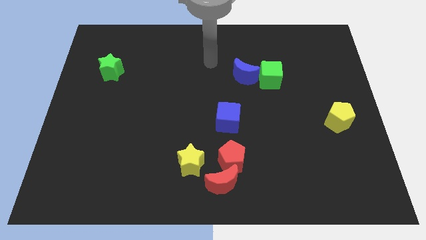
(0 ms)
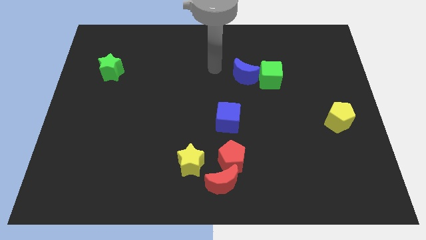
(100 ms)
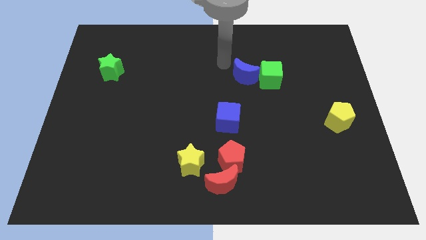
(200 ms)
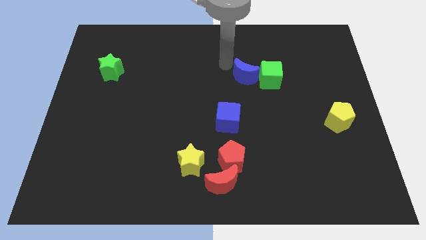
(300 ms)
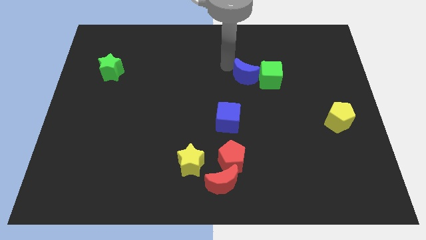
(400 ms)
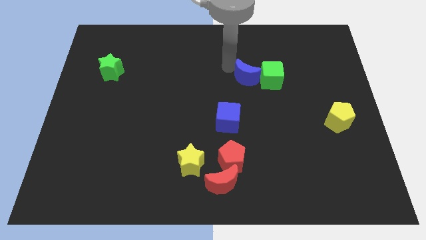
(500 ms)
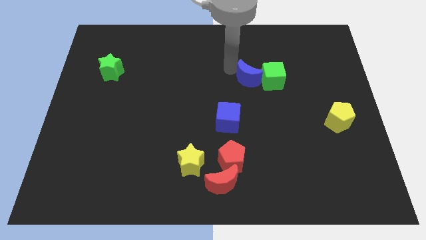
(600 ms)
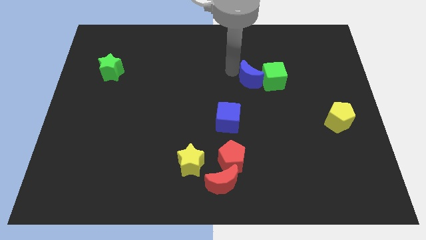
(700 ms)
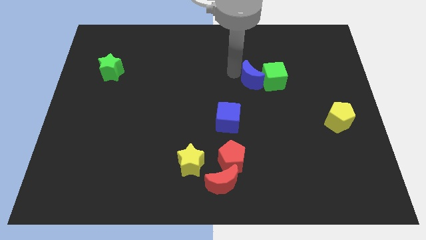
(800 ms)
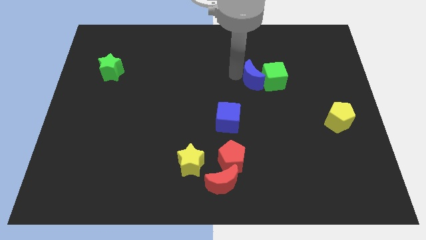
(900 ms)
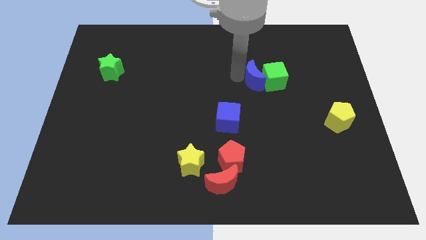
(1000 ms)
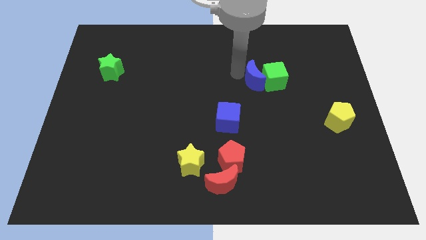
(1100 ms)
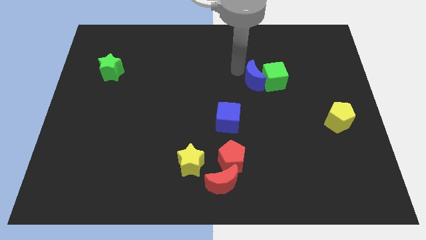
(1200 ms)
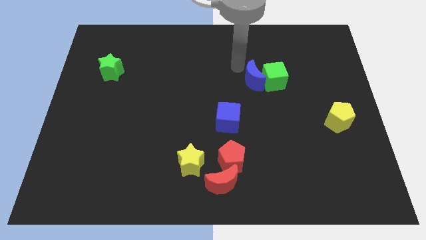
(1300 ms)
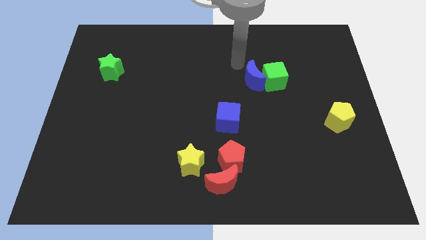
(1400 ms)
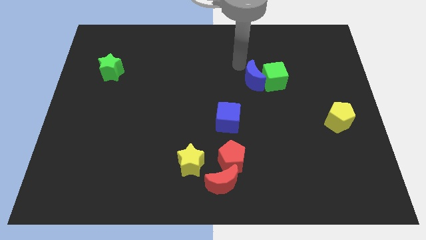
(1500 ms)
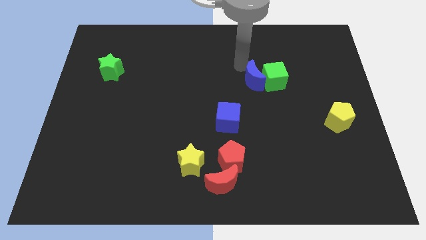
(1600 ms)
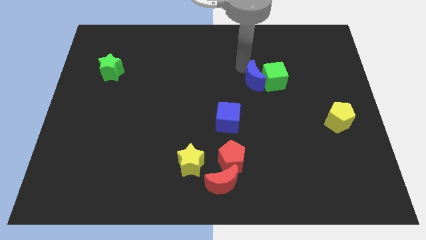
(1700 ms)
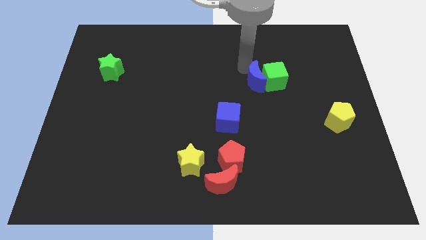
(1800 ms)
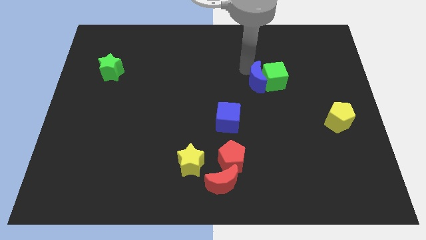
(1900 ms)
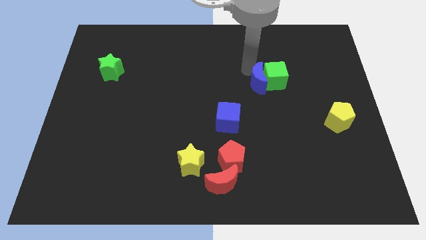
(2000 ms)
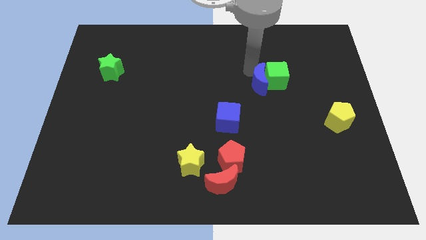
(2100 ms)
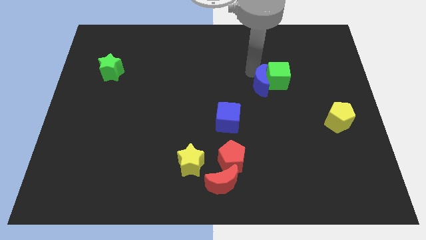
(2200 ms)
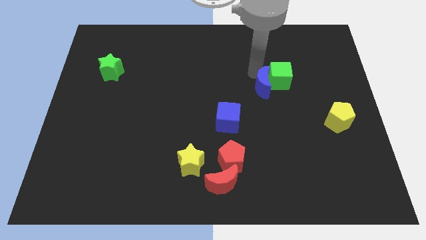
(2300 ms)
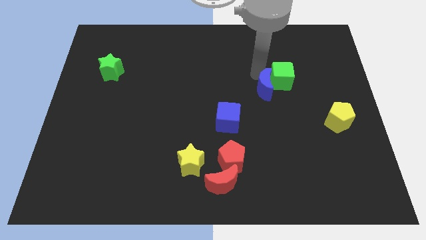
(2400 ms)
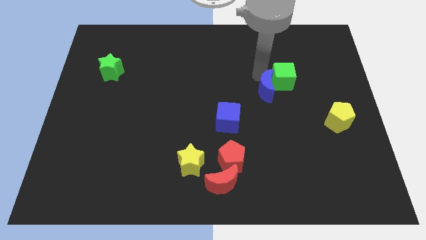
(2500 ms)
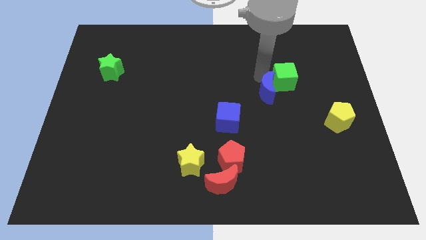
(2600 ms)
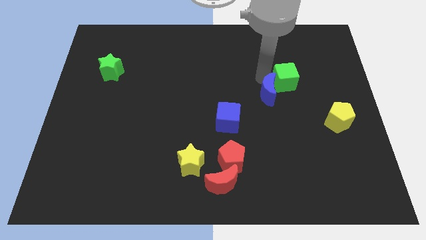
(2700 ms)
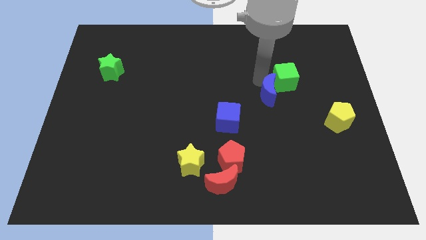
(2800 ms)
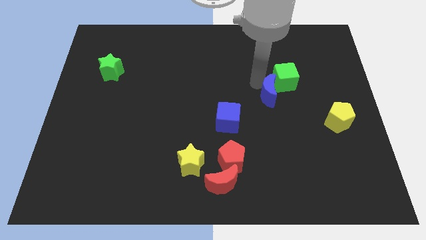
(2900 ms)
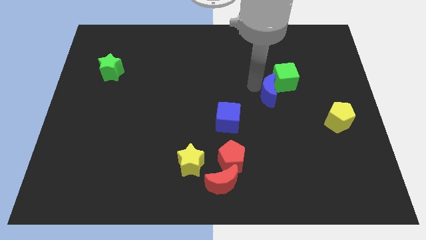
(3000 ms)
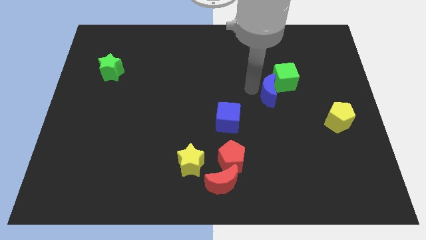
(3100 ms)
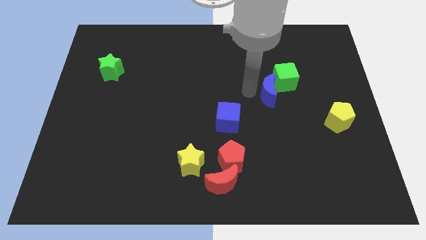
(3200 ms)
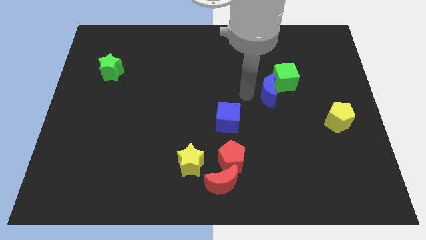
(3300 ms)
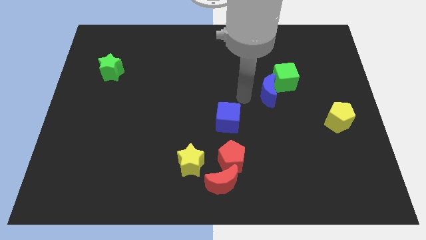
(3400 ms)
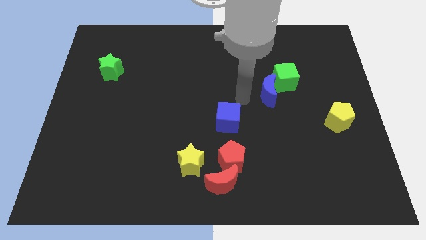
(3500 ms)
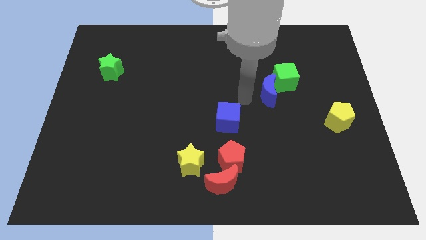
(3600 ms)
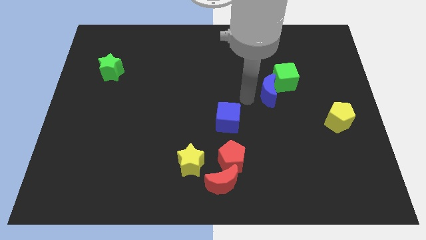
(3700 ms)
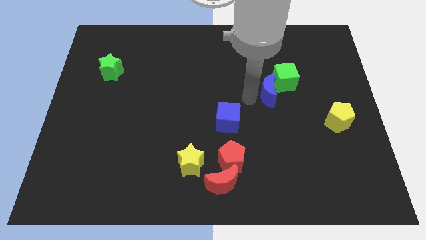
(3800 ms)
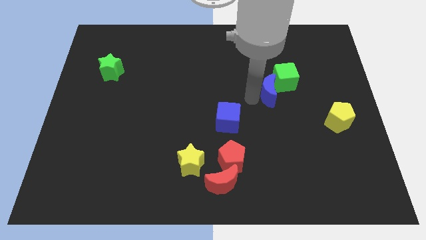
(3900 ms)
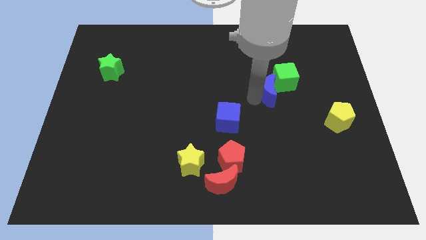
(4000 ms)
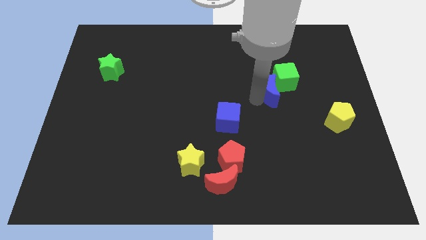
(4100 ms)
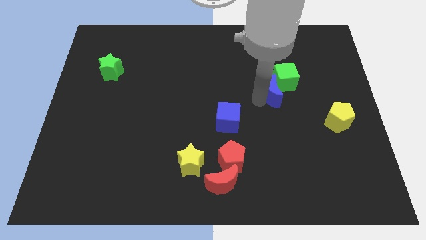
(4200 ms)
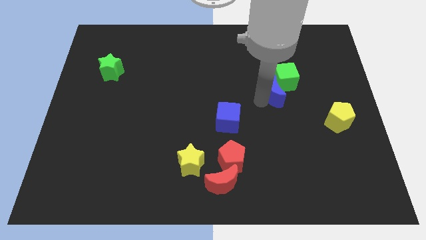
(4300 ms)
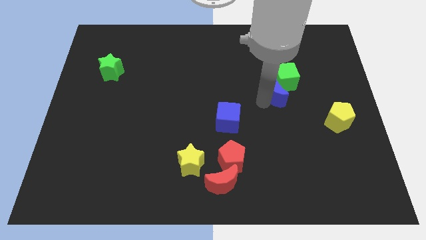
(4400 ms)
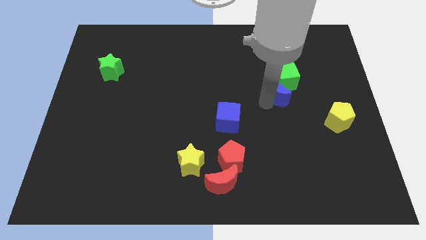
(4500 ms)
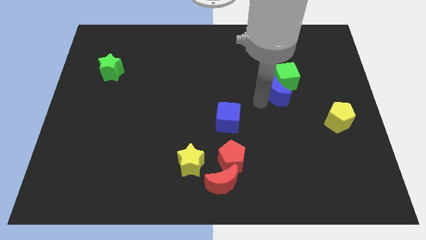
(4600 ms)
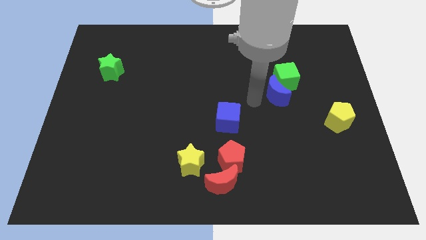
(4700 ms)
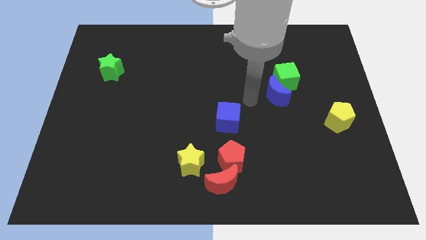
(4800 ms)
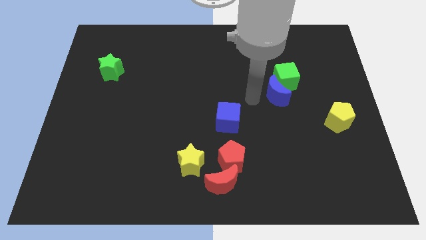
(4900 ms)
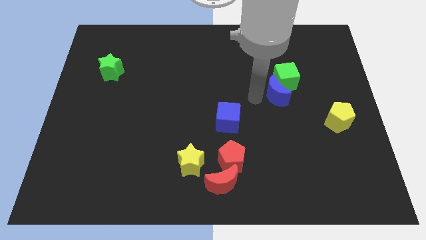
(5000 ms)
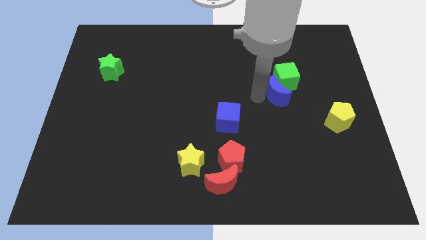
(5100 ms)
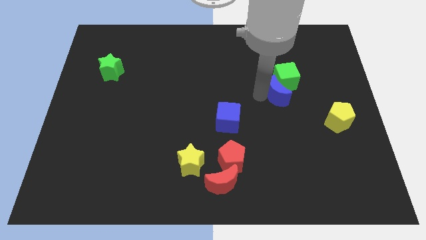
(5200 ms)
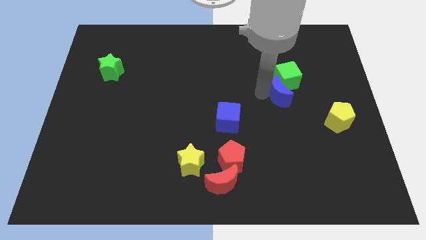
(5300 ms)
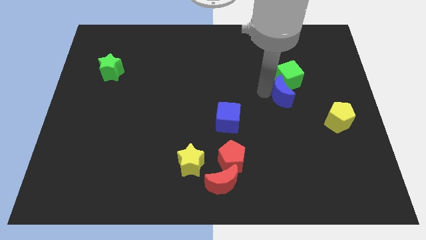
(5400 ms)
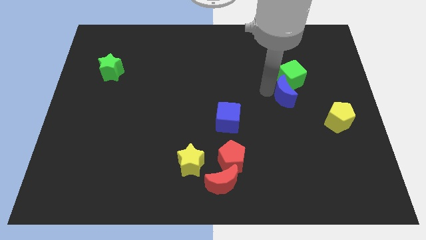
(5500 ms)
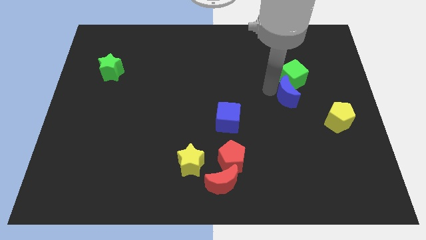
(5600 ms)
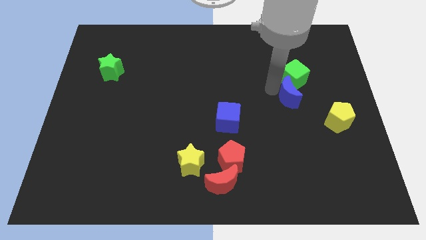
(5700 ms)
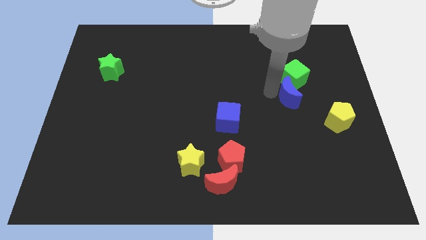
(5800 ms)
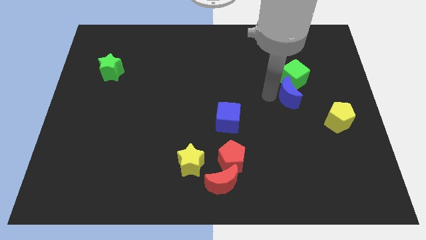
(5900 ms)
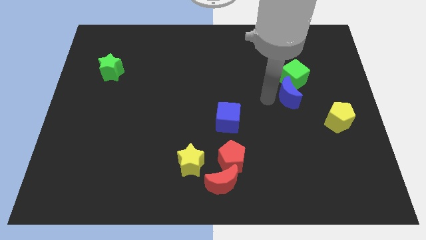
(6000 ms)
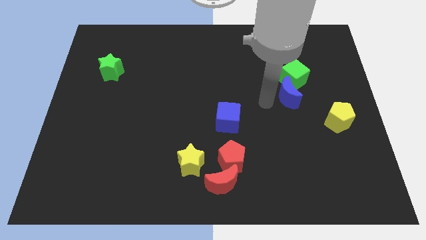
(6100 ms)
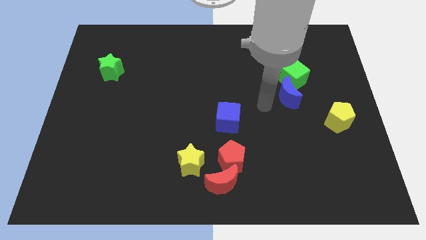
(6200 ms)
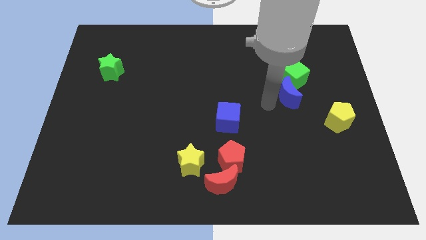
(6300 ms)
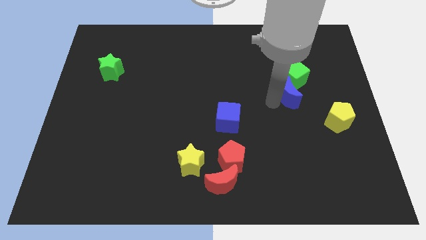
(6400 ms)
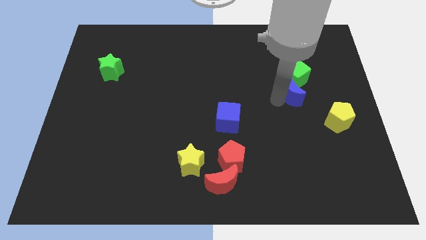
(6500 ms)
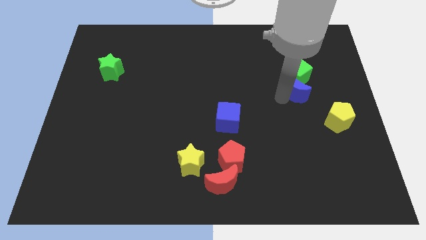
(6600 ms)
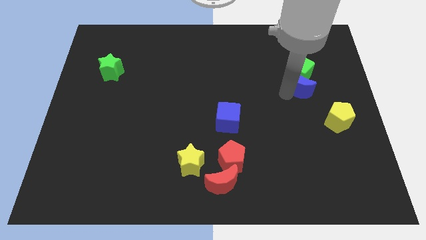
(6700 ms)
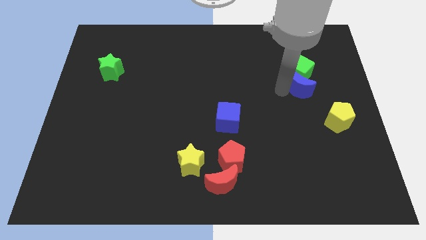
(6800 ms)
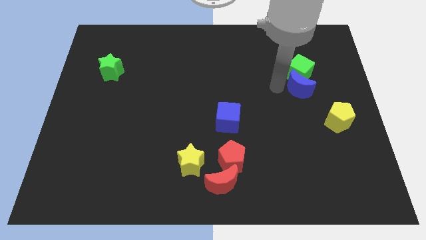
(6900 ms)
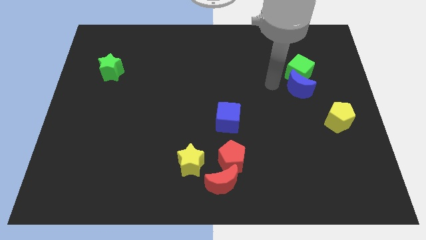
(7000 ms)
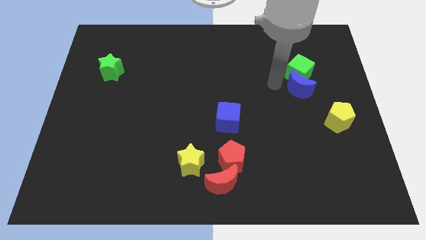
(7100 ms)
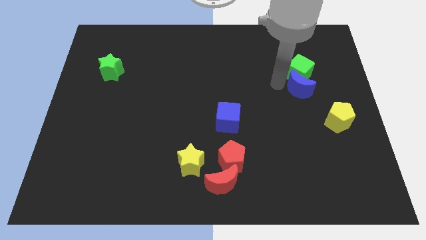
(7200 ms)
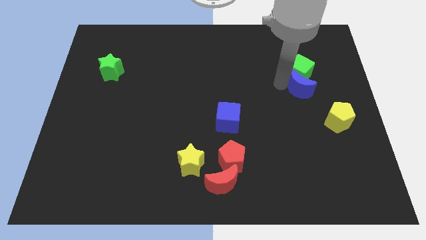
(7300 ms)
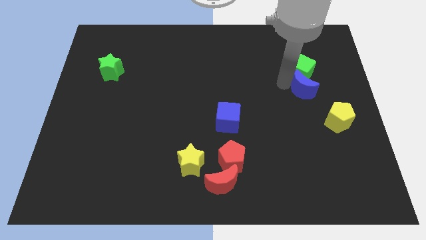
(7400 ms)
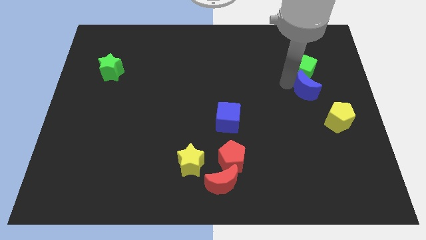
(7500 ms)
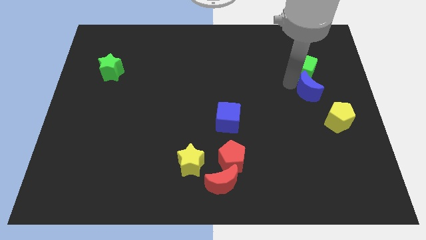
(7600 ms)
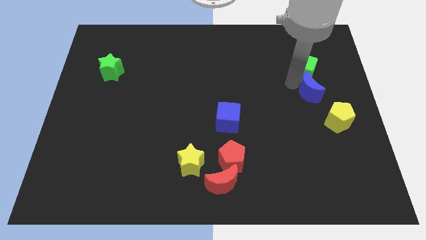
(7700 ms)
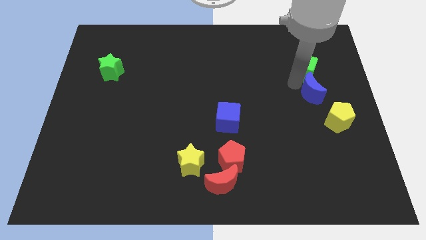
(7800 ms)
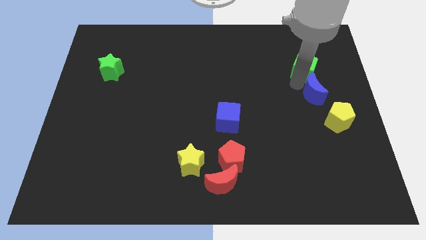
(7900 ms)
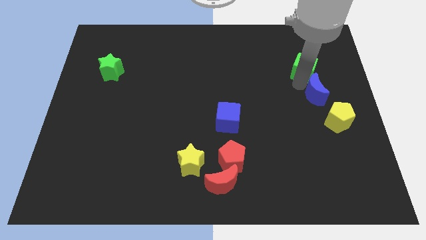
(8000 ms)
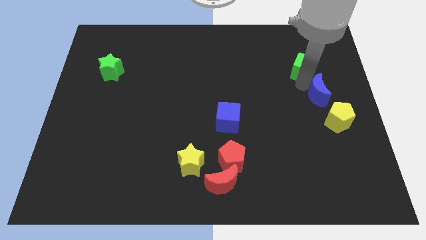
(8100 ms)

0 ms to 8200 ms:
move the blue moon to the center right
